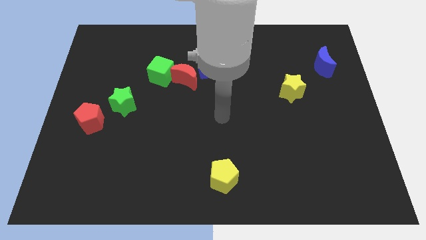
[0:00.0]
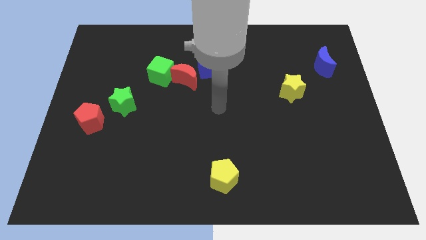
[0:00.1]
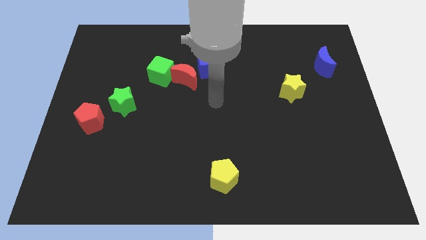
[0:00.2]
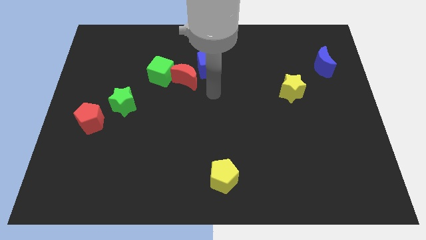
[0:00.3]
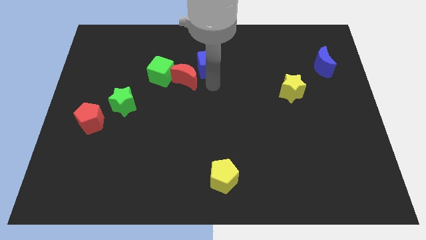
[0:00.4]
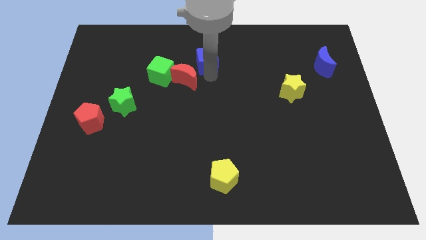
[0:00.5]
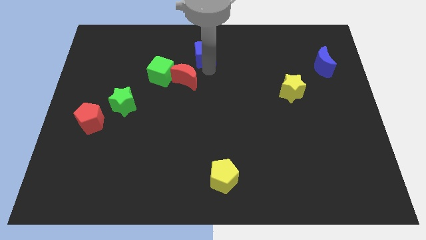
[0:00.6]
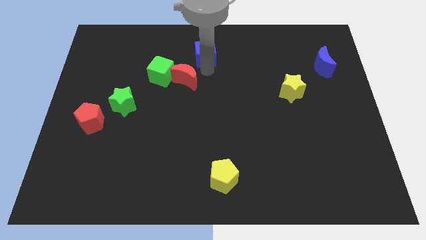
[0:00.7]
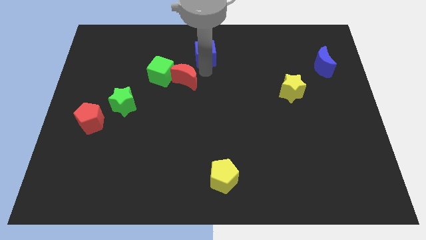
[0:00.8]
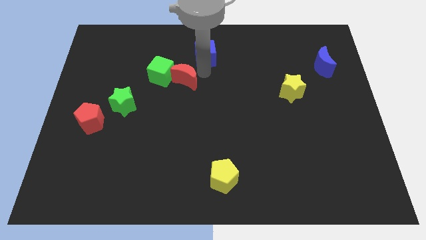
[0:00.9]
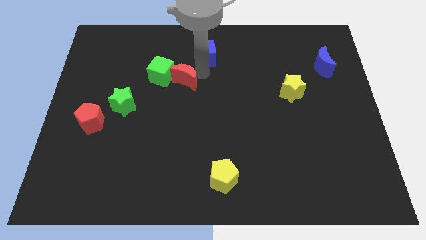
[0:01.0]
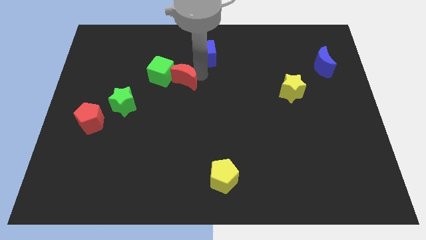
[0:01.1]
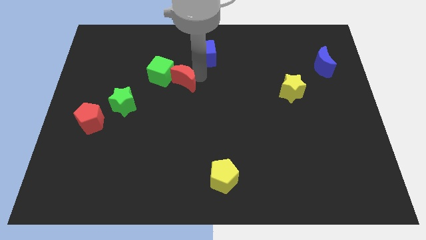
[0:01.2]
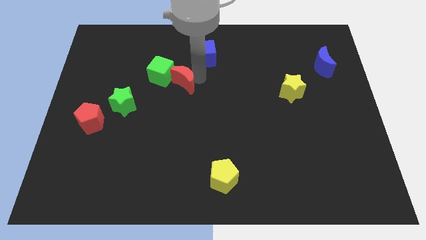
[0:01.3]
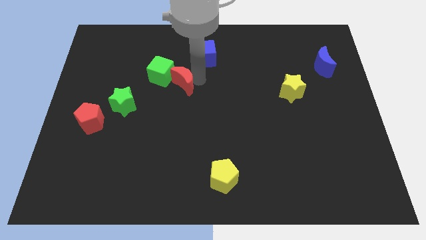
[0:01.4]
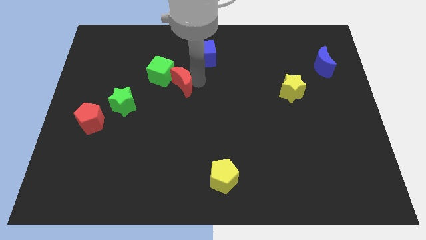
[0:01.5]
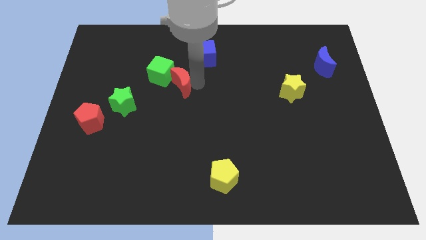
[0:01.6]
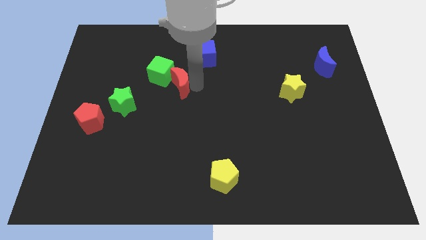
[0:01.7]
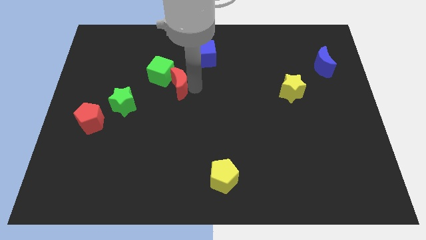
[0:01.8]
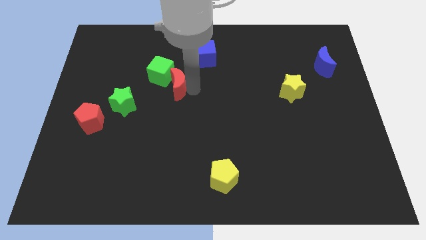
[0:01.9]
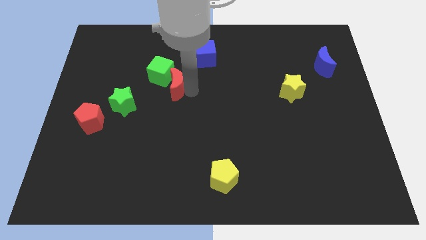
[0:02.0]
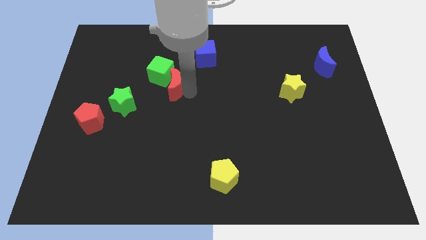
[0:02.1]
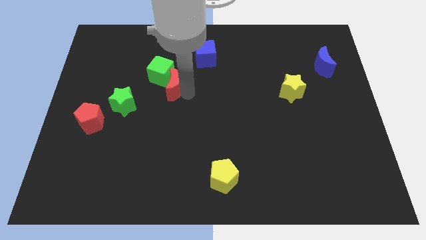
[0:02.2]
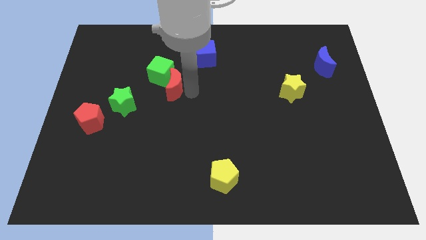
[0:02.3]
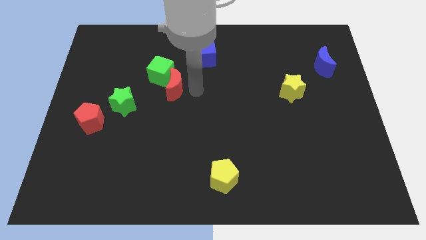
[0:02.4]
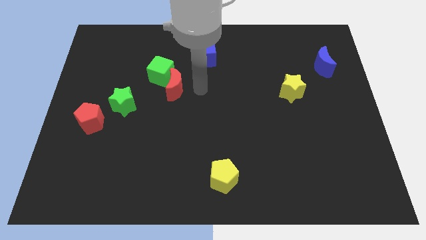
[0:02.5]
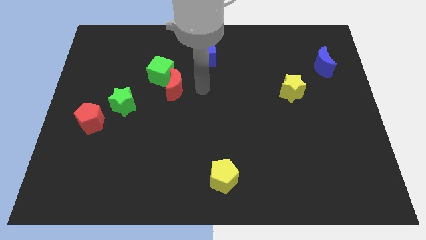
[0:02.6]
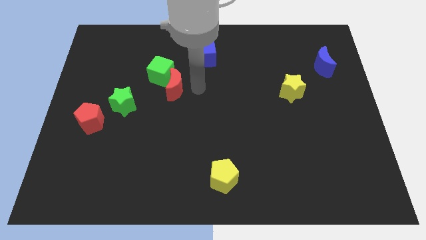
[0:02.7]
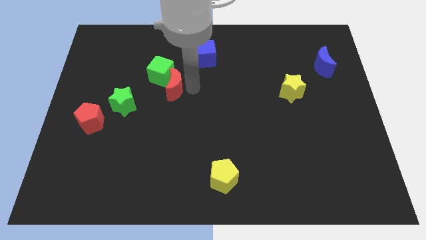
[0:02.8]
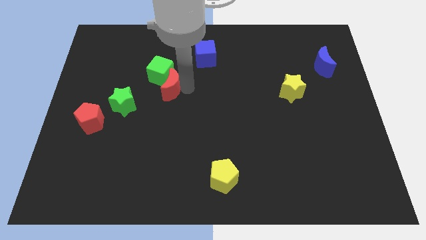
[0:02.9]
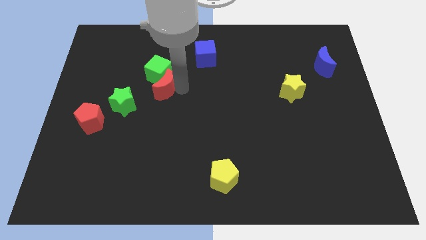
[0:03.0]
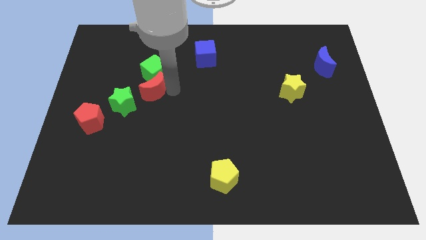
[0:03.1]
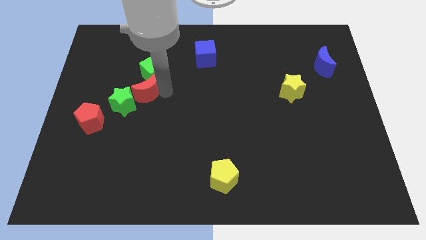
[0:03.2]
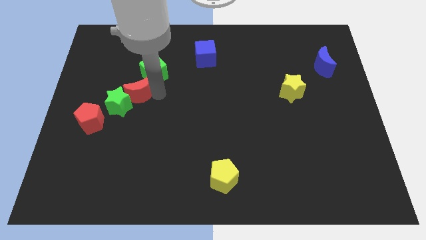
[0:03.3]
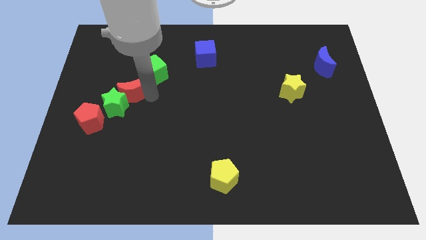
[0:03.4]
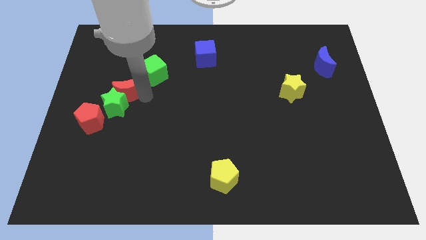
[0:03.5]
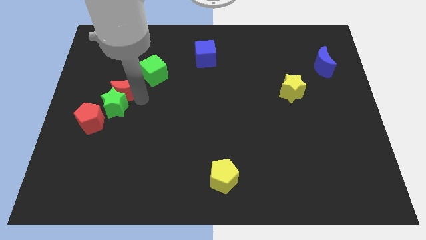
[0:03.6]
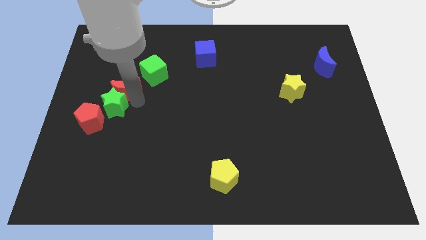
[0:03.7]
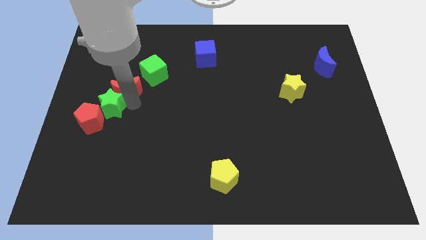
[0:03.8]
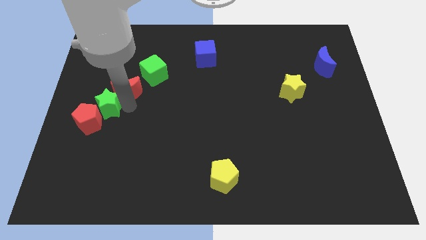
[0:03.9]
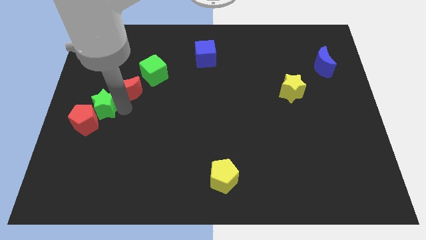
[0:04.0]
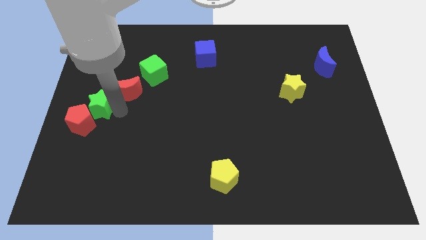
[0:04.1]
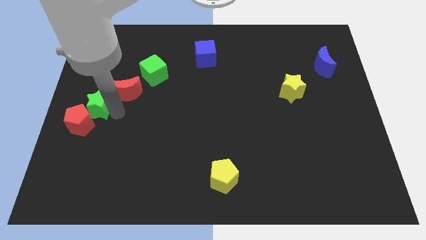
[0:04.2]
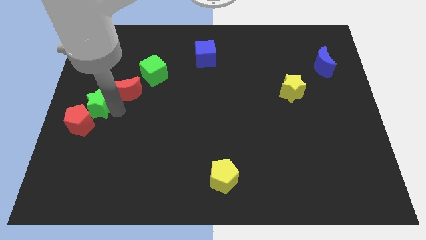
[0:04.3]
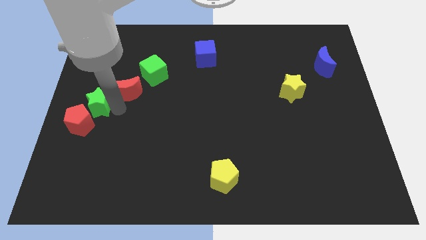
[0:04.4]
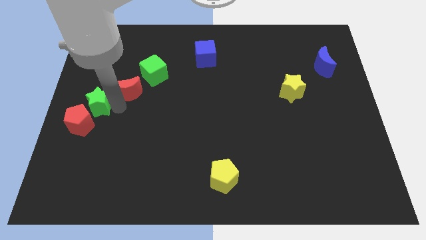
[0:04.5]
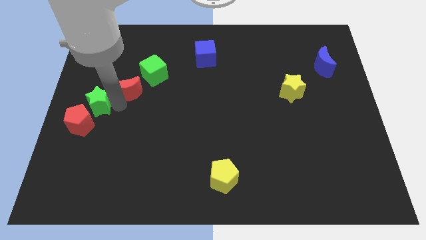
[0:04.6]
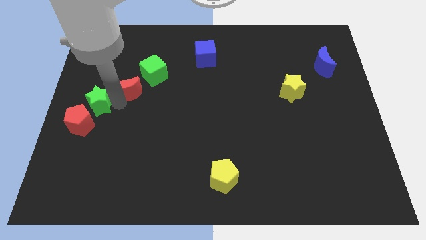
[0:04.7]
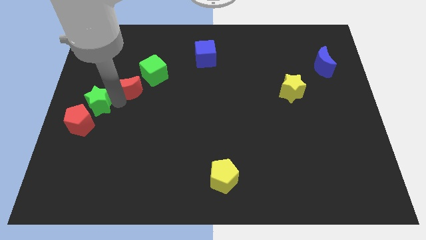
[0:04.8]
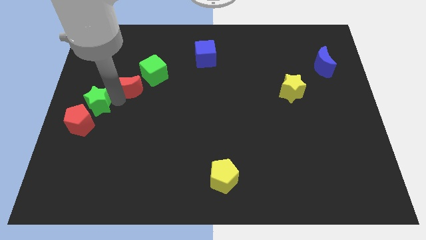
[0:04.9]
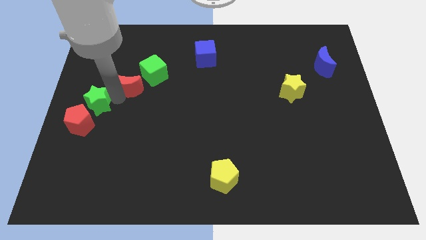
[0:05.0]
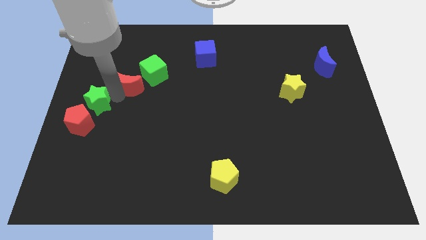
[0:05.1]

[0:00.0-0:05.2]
move the red moon left of the green cube

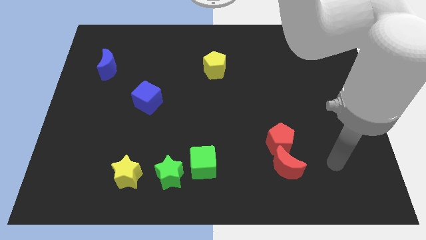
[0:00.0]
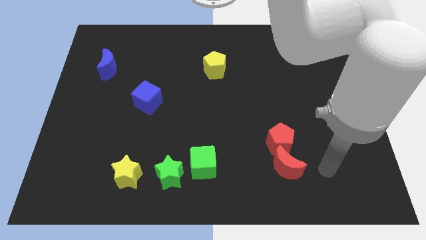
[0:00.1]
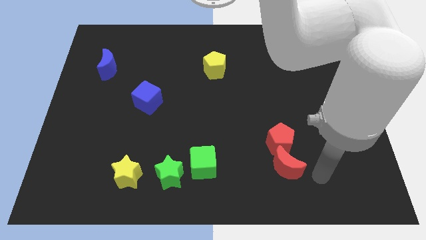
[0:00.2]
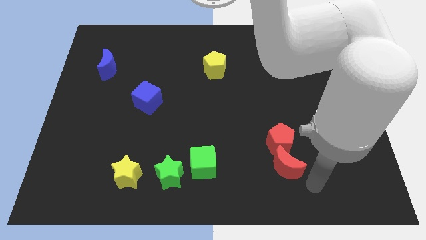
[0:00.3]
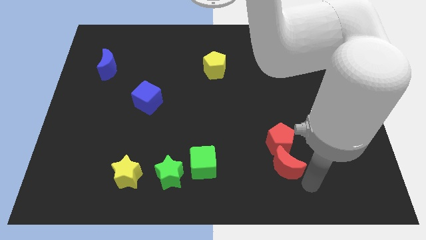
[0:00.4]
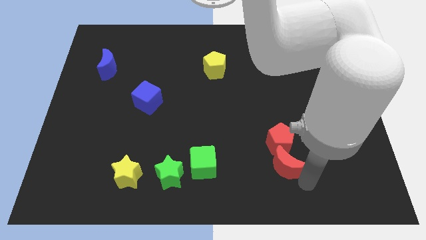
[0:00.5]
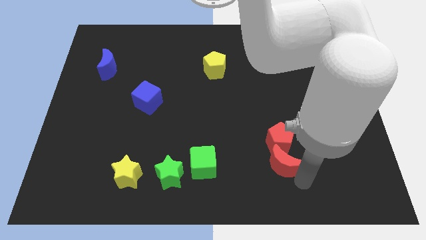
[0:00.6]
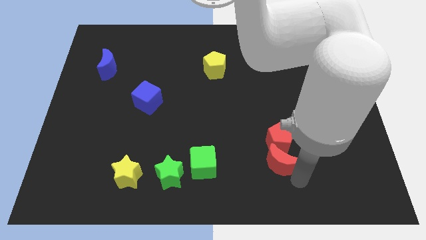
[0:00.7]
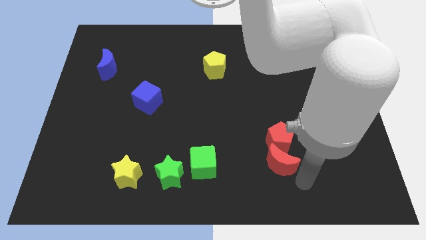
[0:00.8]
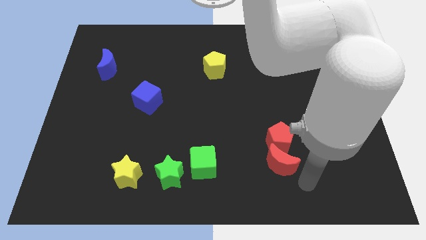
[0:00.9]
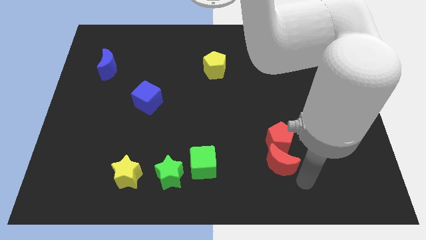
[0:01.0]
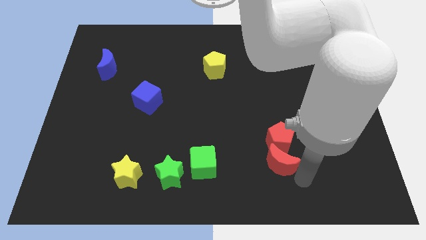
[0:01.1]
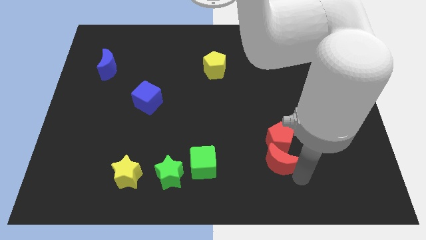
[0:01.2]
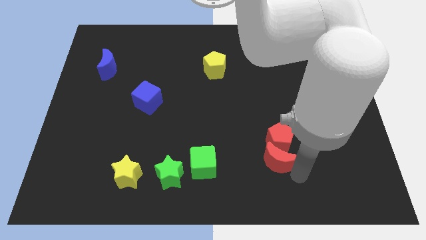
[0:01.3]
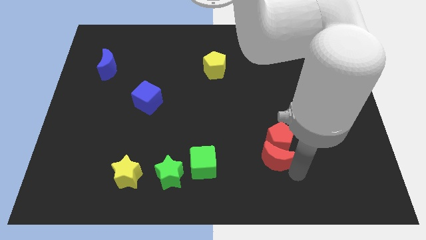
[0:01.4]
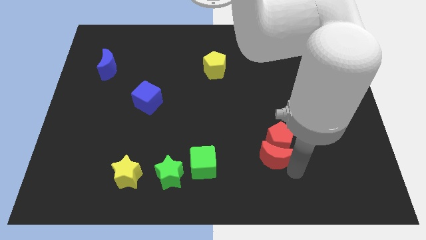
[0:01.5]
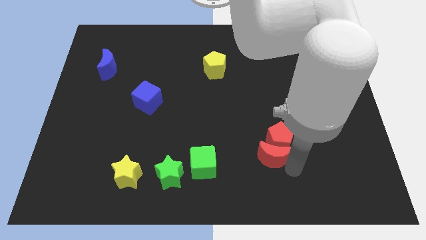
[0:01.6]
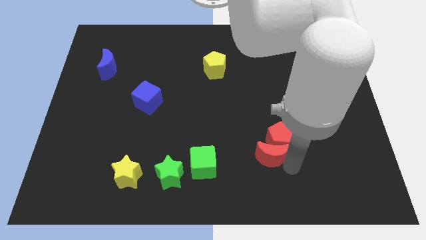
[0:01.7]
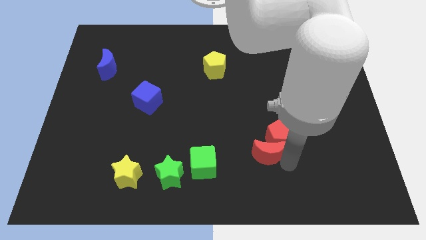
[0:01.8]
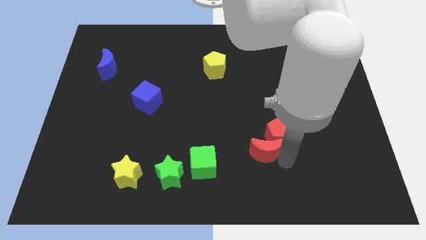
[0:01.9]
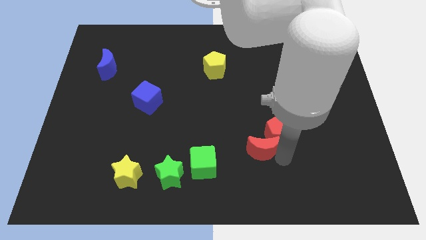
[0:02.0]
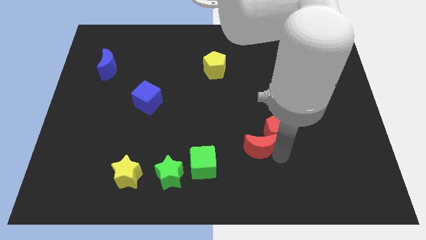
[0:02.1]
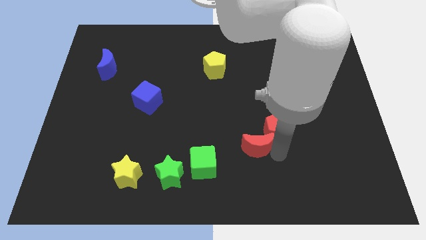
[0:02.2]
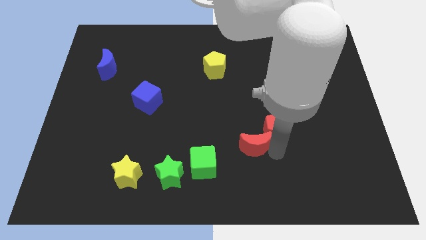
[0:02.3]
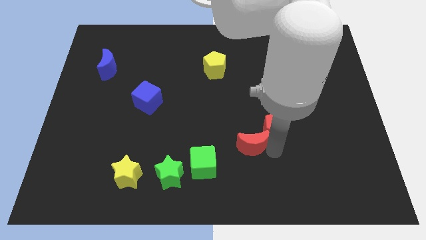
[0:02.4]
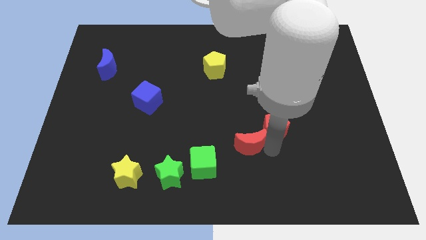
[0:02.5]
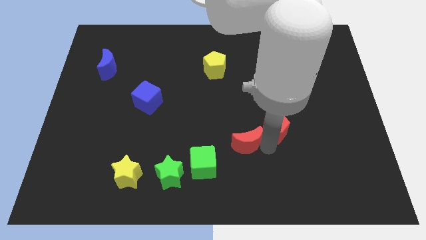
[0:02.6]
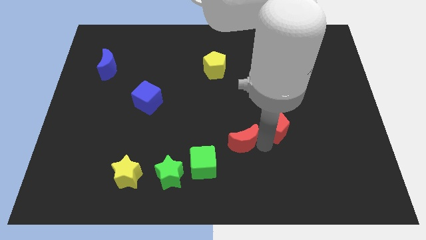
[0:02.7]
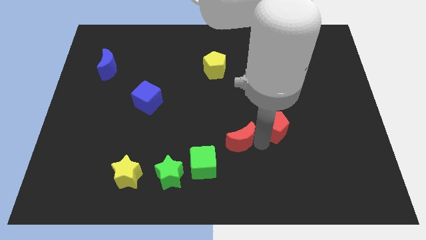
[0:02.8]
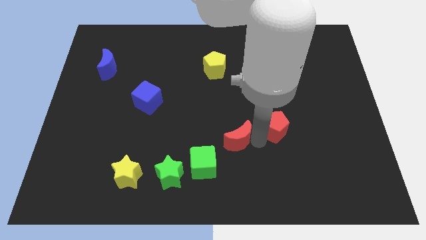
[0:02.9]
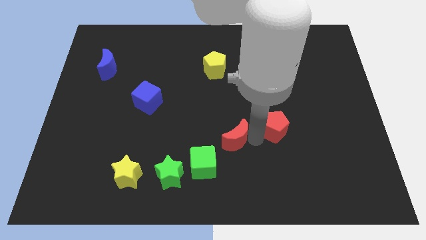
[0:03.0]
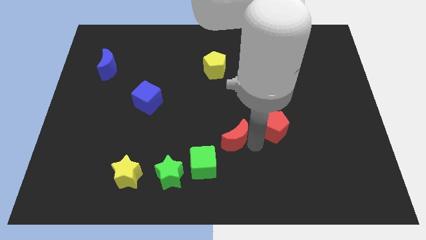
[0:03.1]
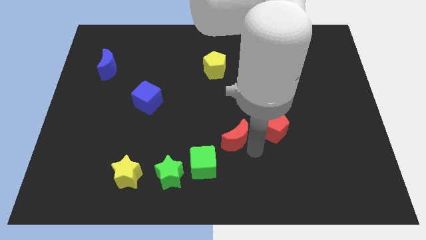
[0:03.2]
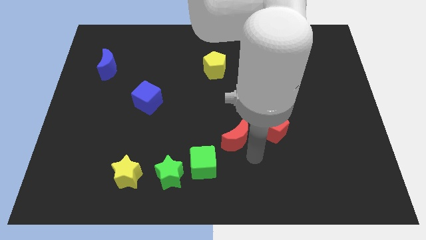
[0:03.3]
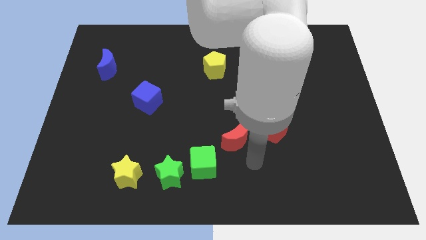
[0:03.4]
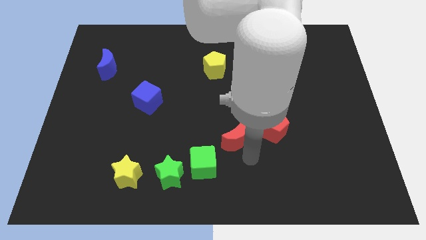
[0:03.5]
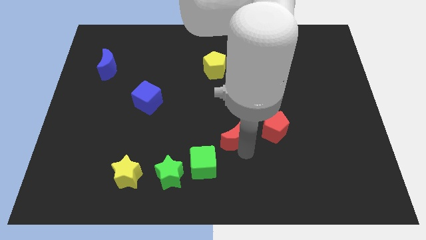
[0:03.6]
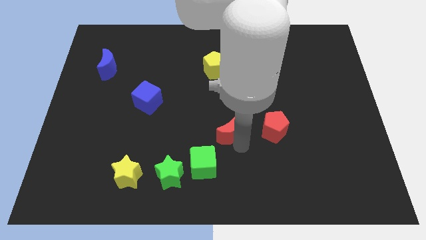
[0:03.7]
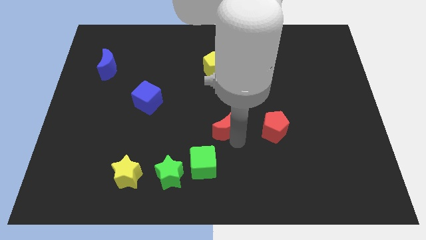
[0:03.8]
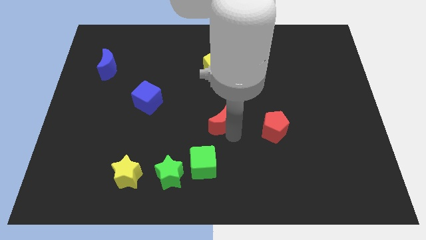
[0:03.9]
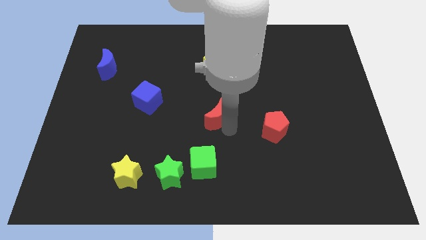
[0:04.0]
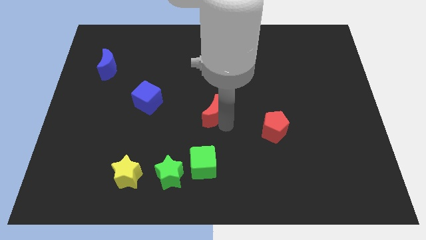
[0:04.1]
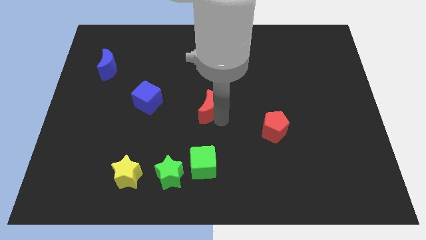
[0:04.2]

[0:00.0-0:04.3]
move the red moon to the right of the blue cube
